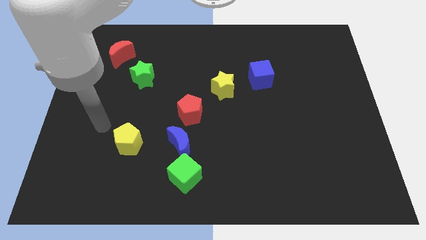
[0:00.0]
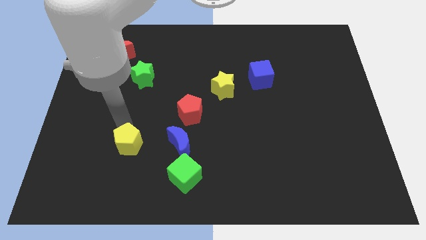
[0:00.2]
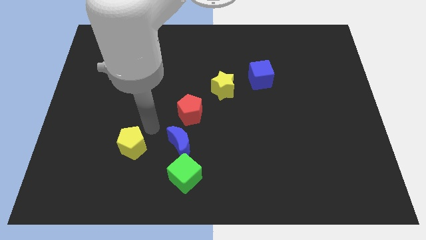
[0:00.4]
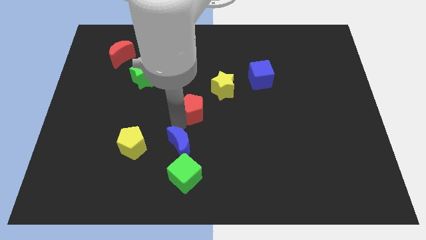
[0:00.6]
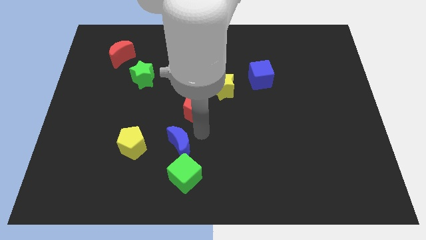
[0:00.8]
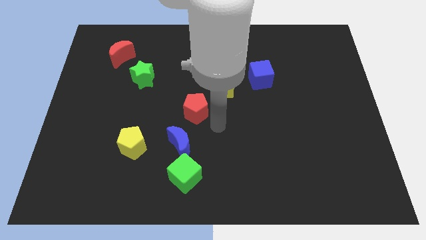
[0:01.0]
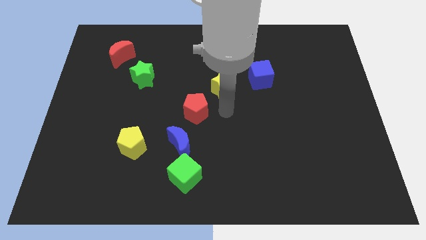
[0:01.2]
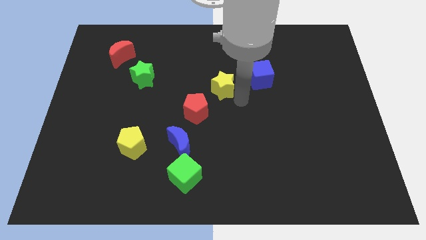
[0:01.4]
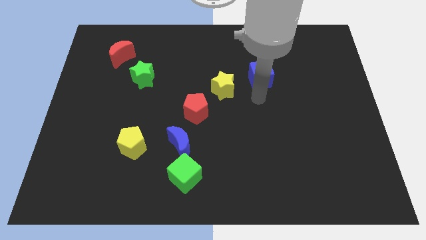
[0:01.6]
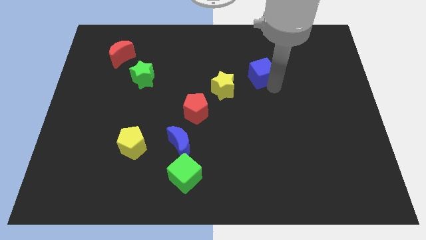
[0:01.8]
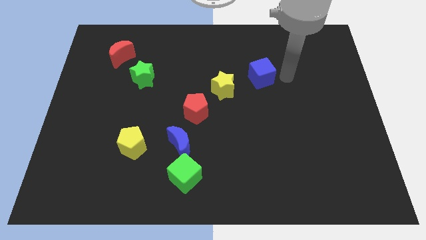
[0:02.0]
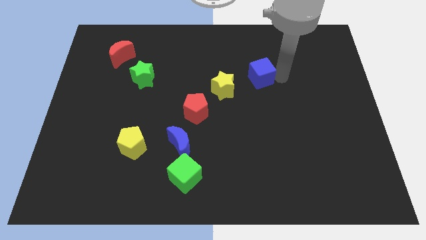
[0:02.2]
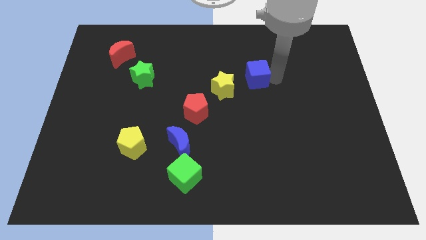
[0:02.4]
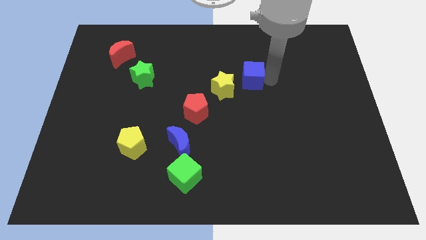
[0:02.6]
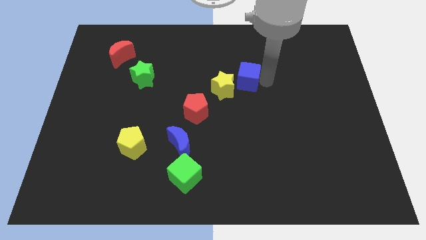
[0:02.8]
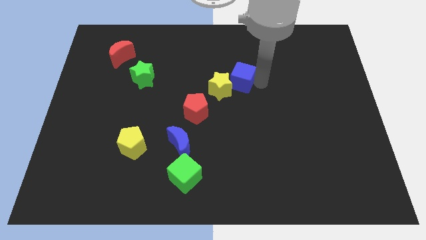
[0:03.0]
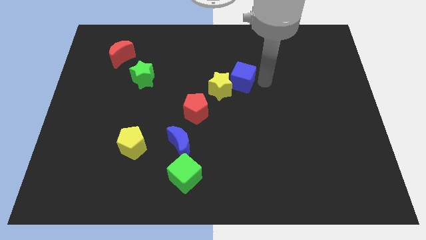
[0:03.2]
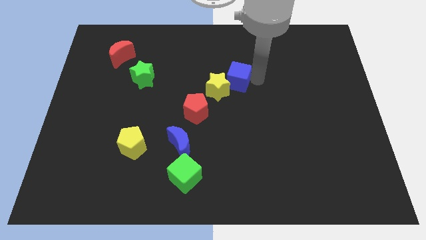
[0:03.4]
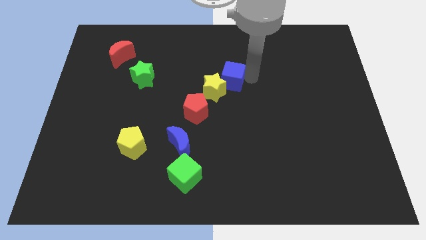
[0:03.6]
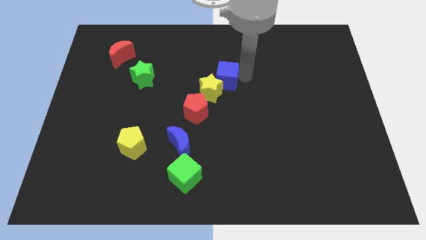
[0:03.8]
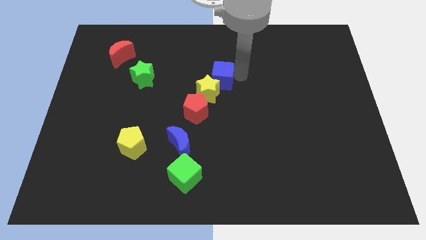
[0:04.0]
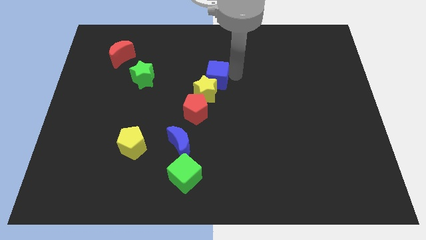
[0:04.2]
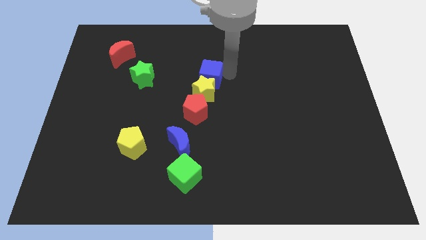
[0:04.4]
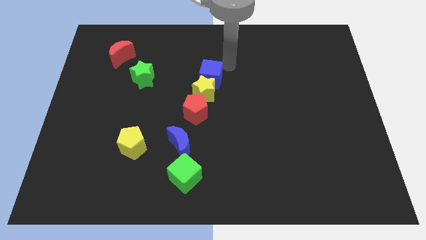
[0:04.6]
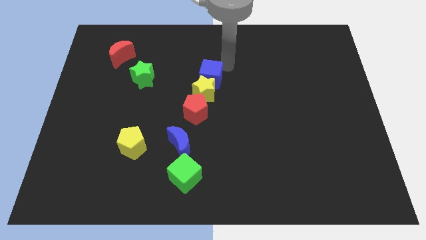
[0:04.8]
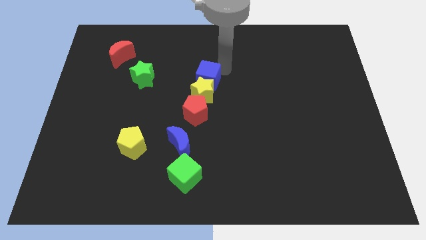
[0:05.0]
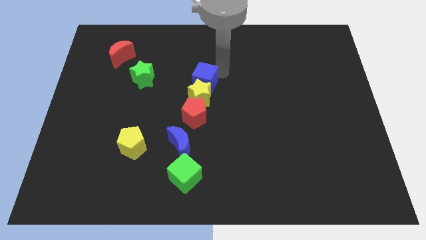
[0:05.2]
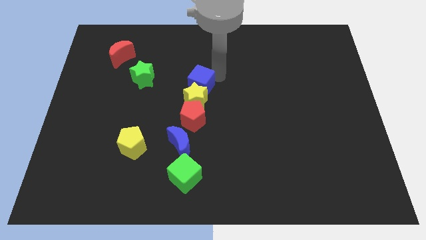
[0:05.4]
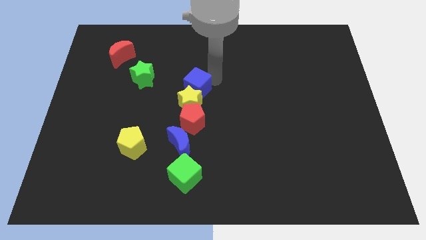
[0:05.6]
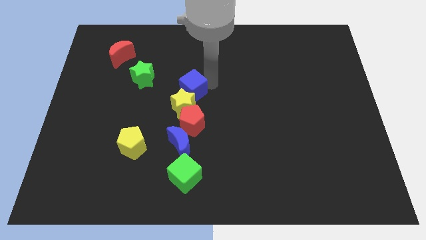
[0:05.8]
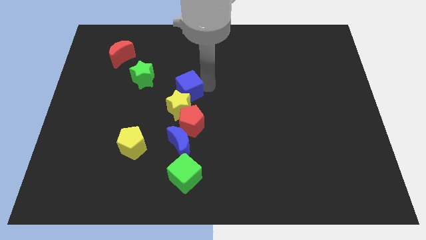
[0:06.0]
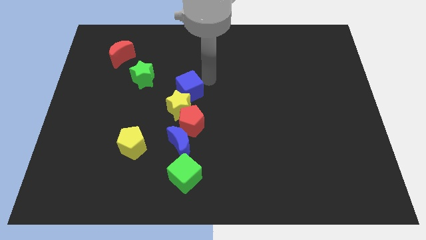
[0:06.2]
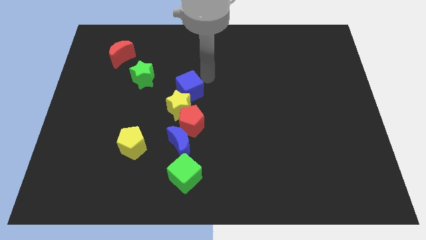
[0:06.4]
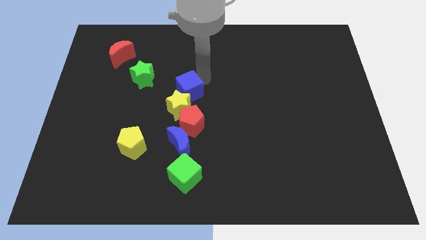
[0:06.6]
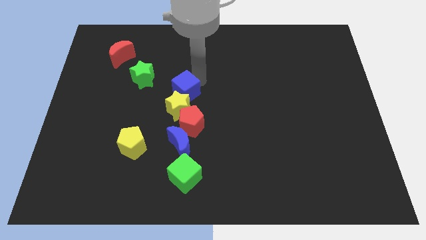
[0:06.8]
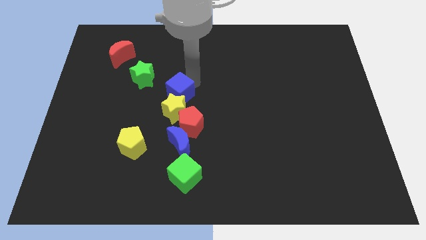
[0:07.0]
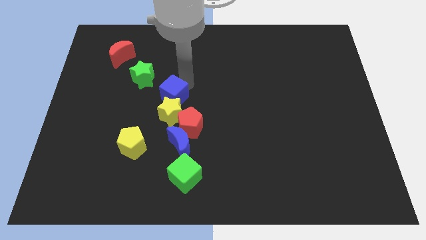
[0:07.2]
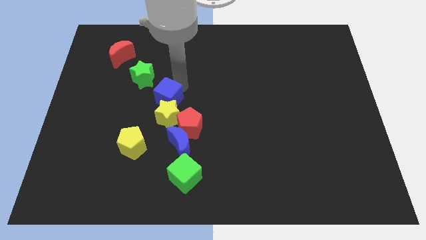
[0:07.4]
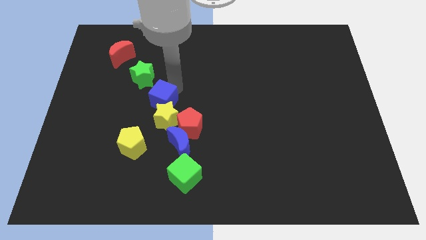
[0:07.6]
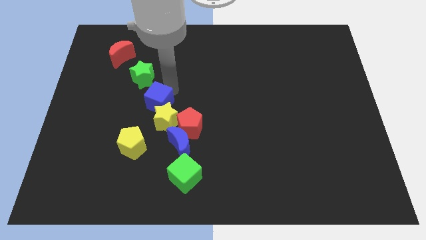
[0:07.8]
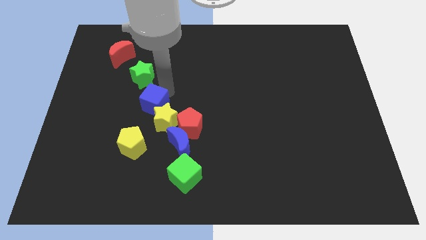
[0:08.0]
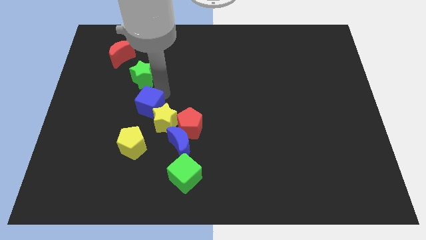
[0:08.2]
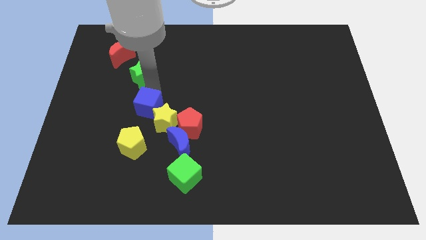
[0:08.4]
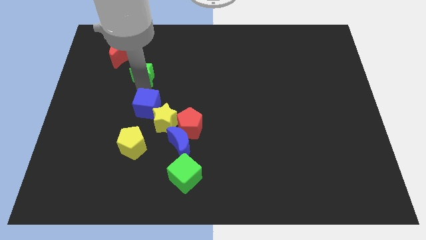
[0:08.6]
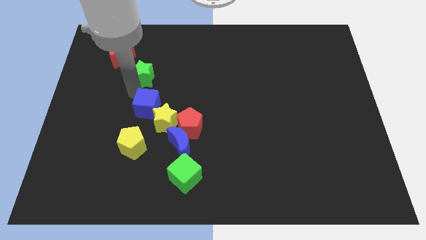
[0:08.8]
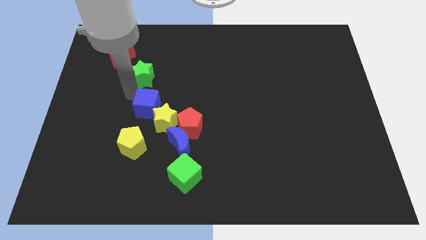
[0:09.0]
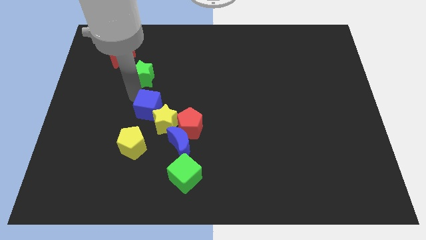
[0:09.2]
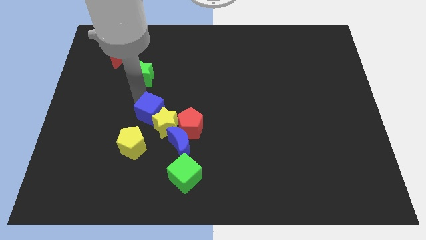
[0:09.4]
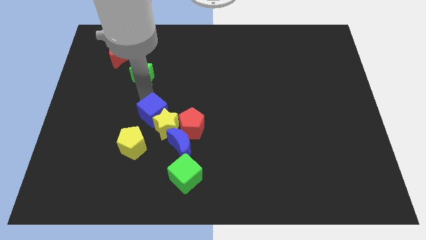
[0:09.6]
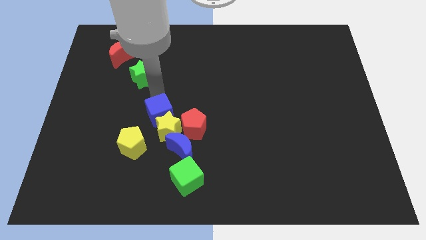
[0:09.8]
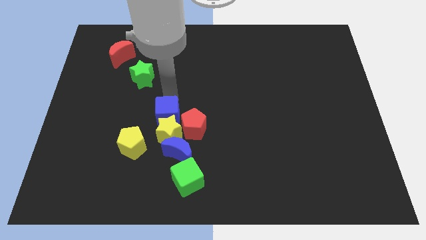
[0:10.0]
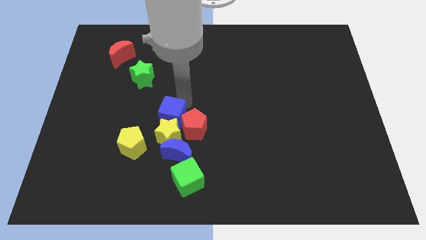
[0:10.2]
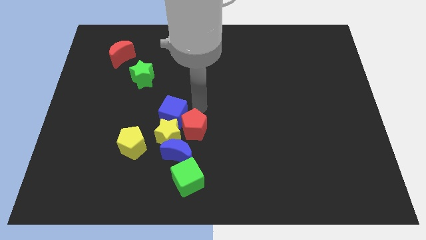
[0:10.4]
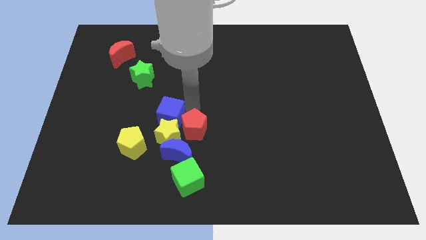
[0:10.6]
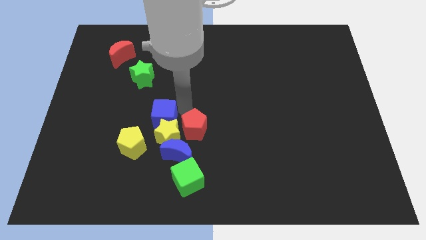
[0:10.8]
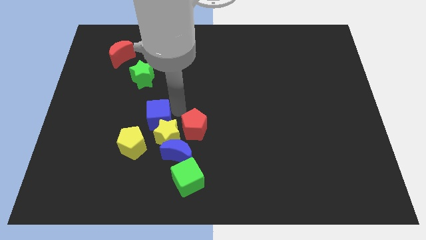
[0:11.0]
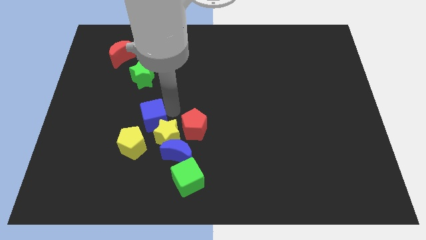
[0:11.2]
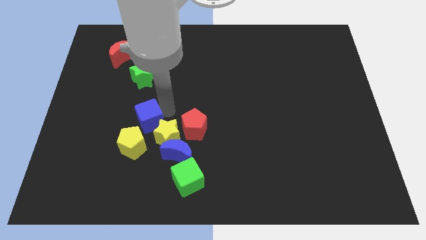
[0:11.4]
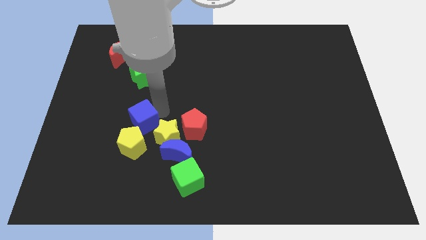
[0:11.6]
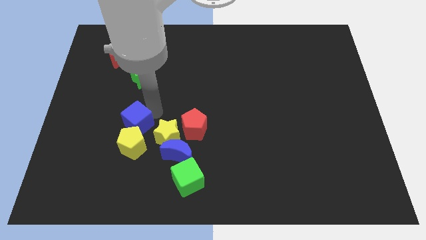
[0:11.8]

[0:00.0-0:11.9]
push the blue cube towards the yellow pentagon

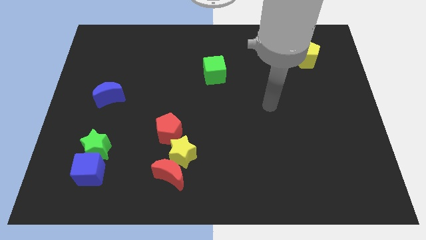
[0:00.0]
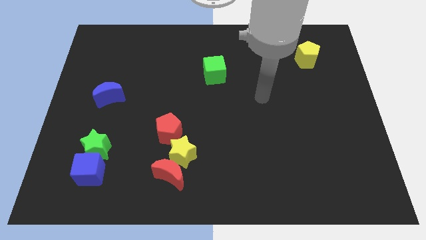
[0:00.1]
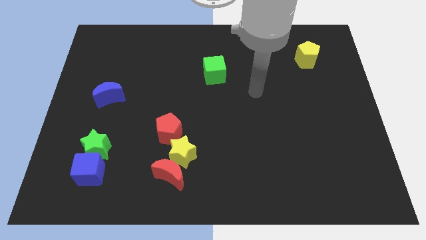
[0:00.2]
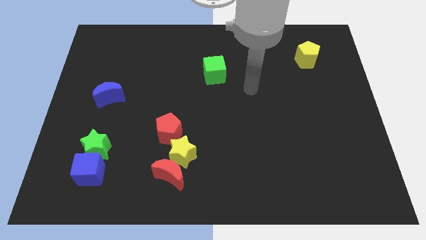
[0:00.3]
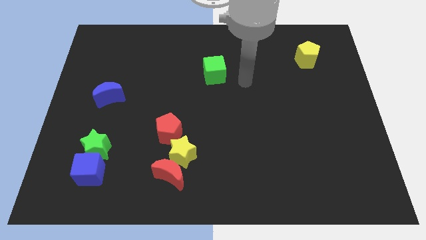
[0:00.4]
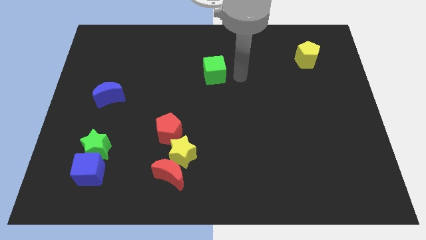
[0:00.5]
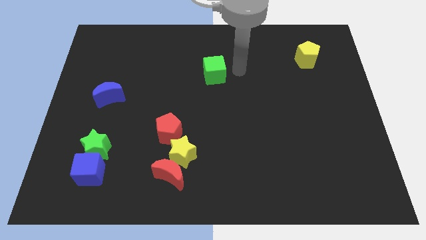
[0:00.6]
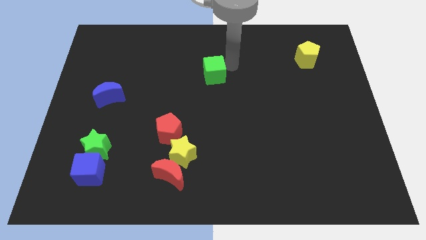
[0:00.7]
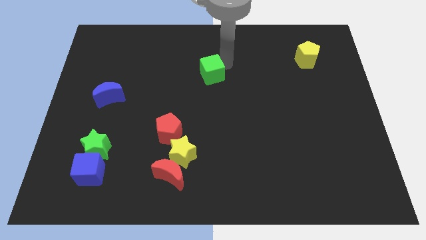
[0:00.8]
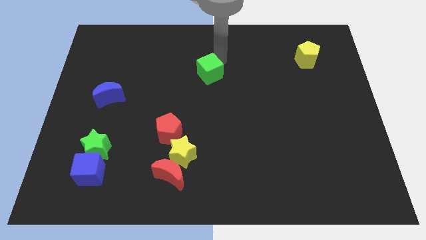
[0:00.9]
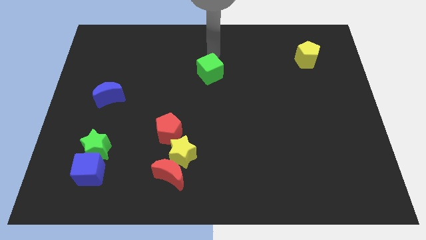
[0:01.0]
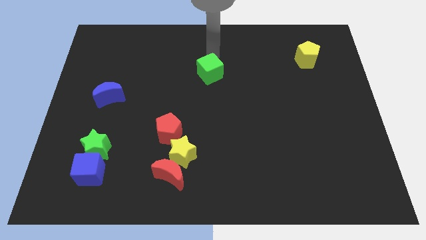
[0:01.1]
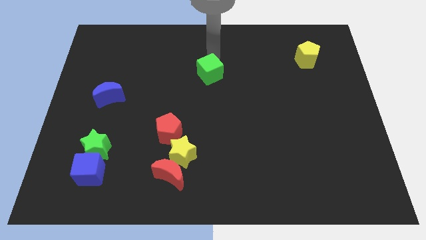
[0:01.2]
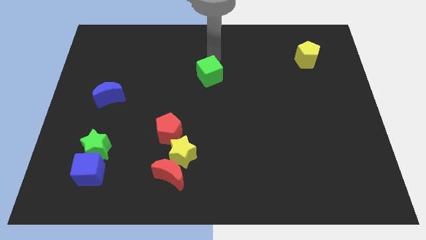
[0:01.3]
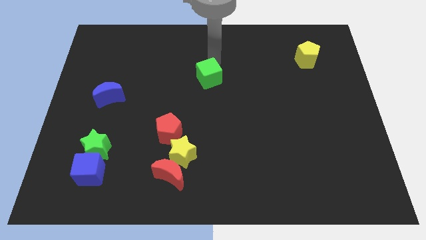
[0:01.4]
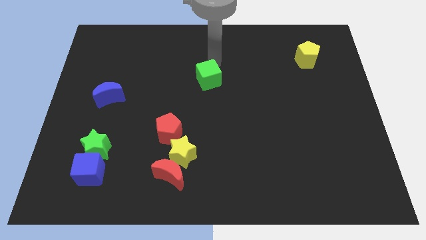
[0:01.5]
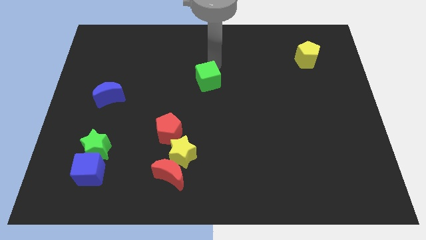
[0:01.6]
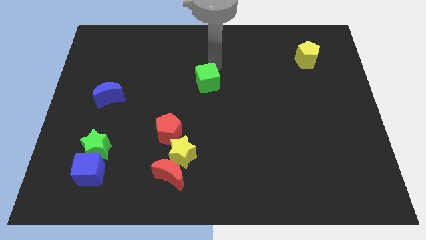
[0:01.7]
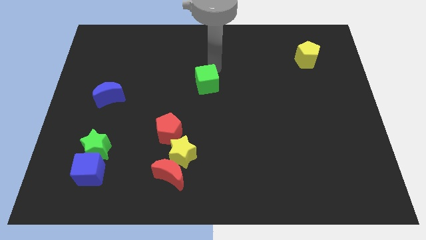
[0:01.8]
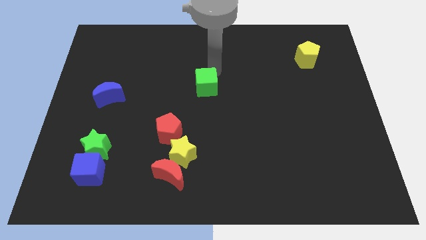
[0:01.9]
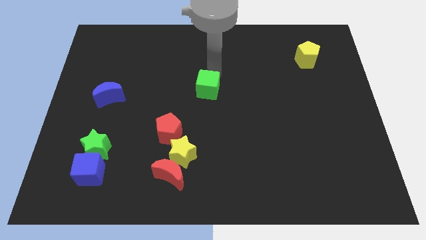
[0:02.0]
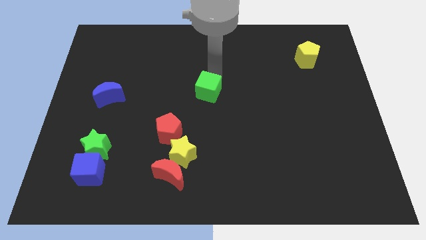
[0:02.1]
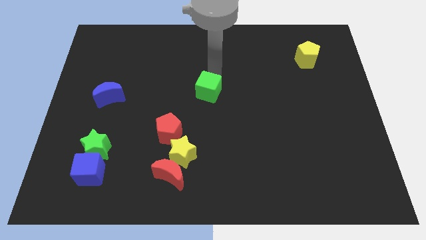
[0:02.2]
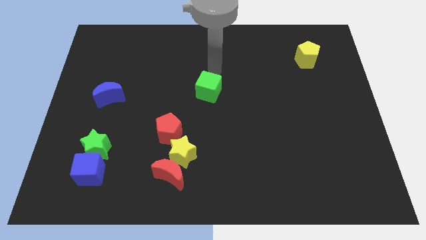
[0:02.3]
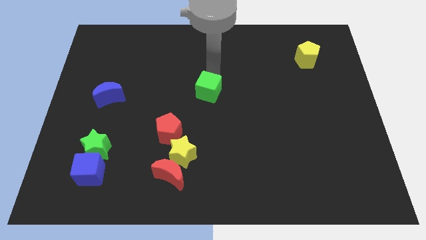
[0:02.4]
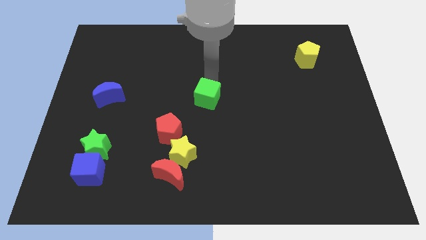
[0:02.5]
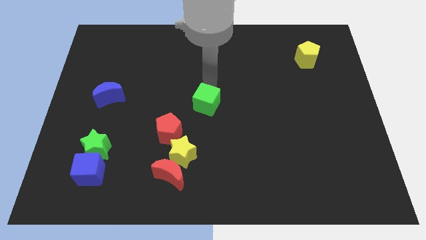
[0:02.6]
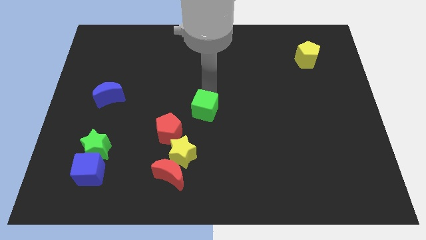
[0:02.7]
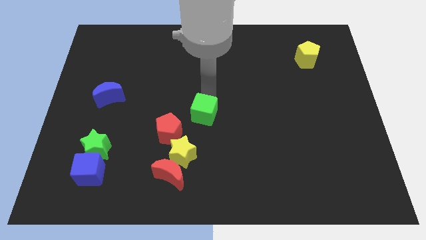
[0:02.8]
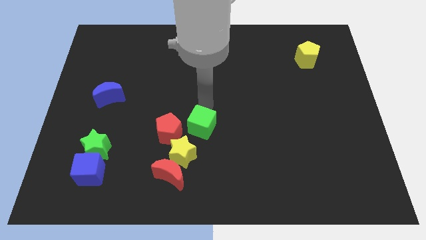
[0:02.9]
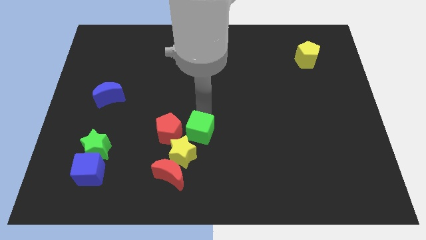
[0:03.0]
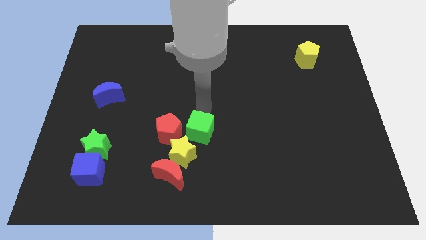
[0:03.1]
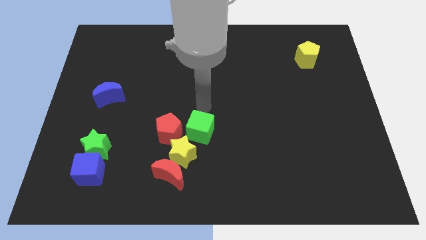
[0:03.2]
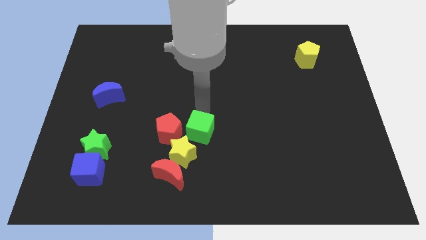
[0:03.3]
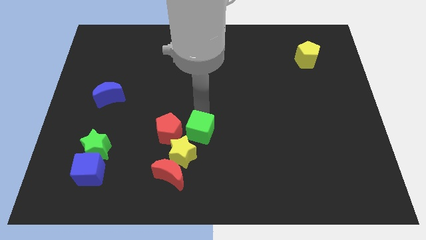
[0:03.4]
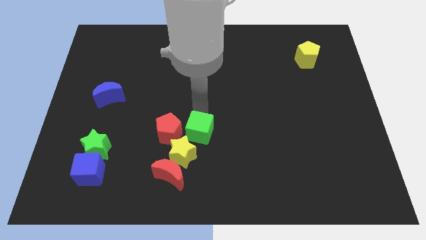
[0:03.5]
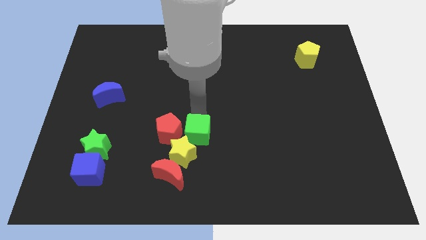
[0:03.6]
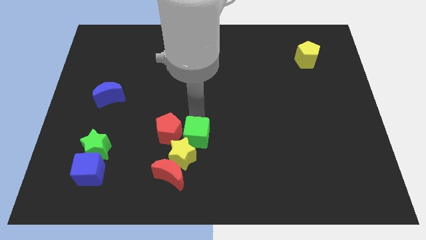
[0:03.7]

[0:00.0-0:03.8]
put the green cube to the yellow star
